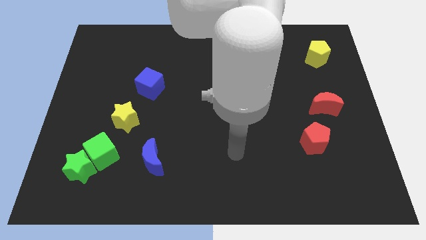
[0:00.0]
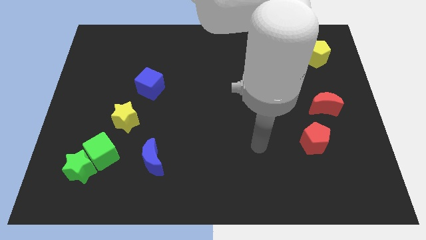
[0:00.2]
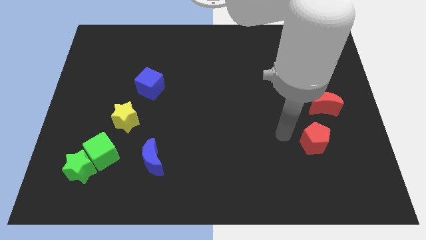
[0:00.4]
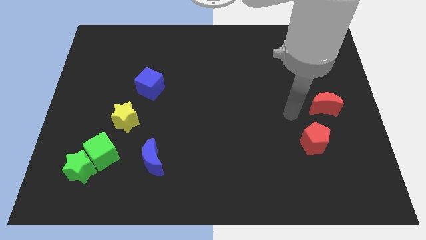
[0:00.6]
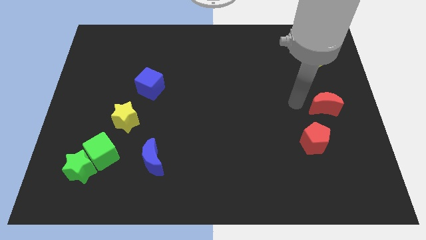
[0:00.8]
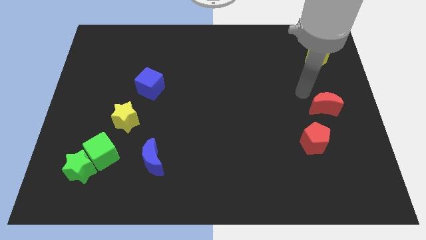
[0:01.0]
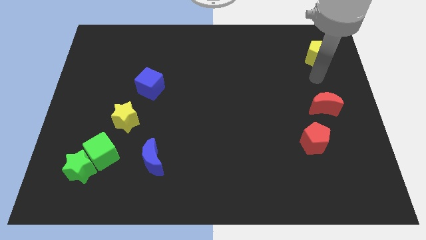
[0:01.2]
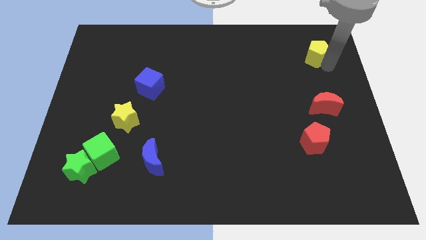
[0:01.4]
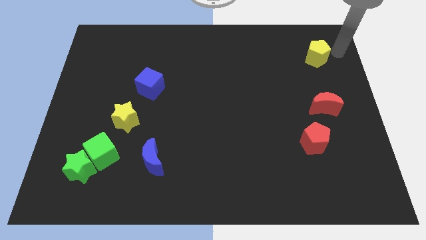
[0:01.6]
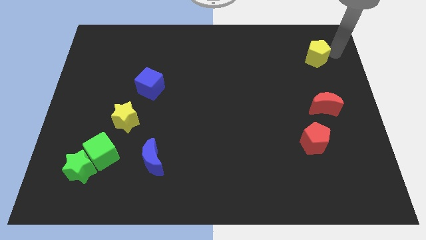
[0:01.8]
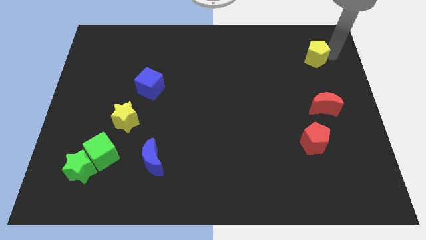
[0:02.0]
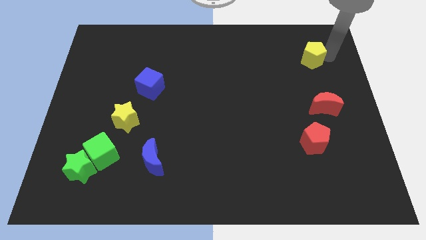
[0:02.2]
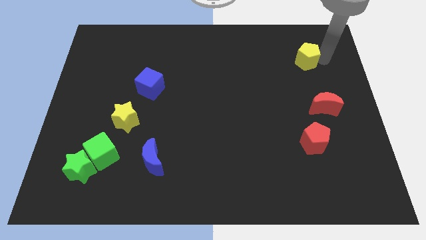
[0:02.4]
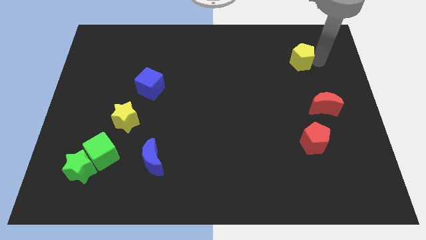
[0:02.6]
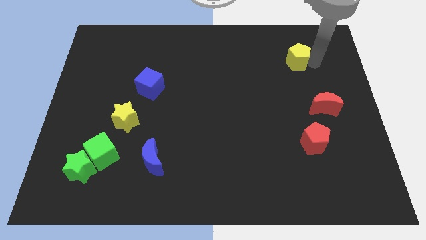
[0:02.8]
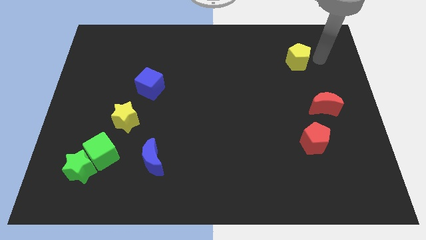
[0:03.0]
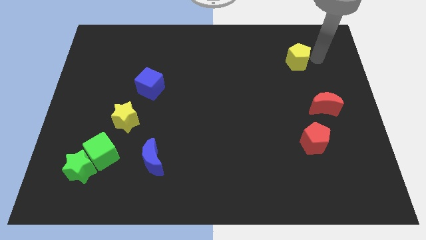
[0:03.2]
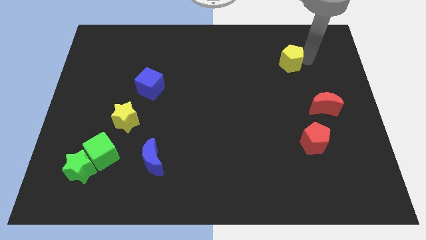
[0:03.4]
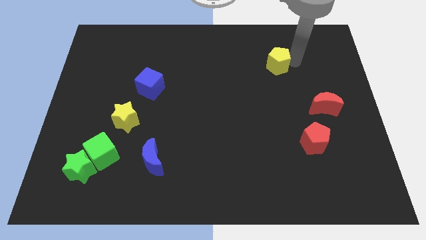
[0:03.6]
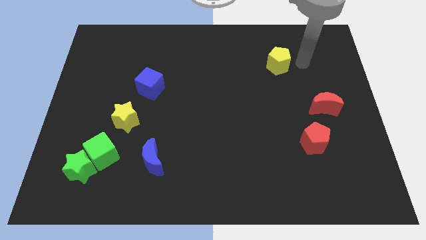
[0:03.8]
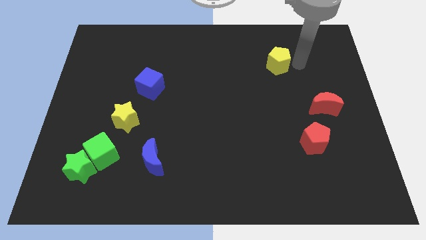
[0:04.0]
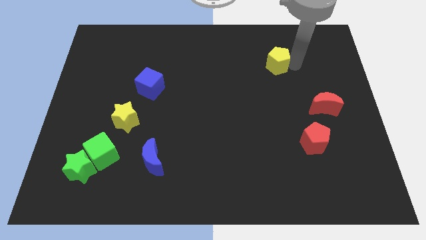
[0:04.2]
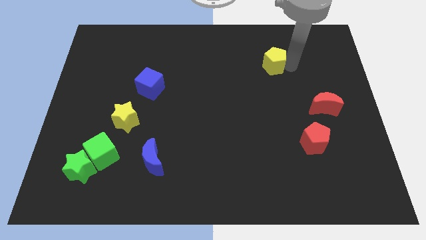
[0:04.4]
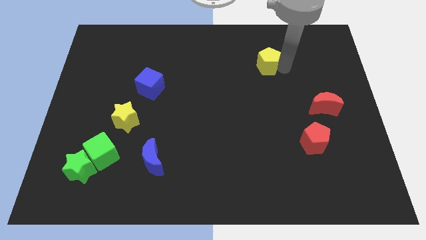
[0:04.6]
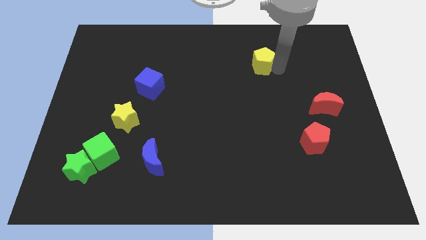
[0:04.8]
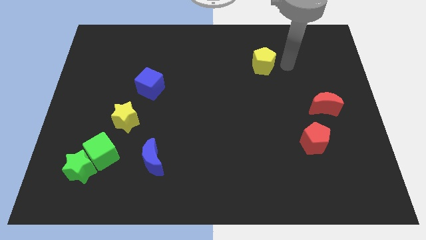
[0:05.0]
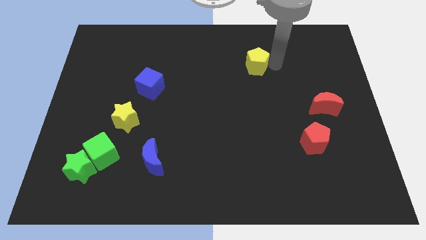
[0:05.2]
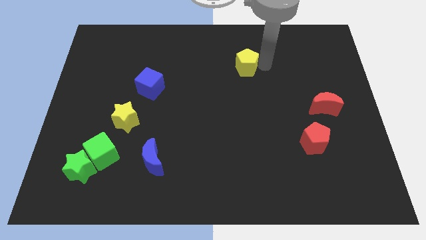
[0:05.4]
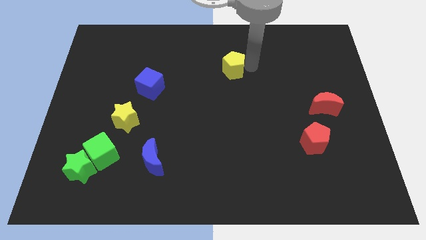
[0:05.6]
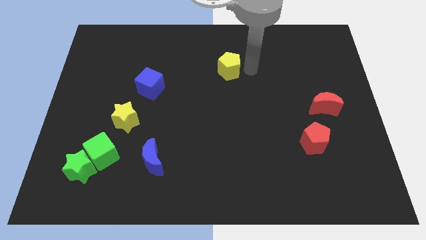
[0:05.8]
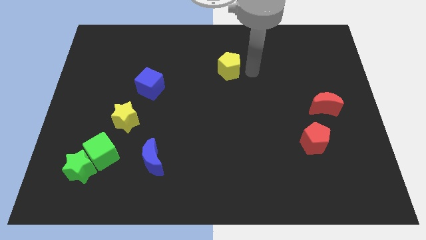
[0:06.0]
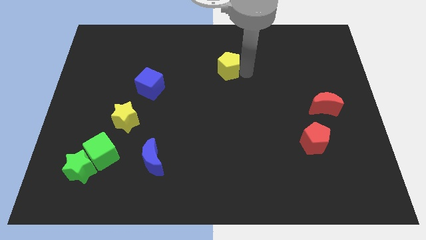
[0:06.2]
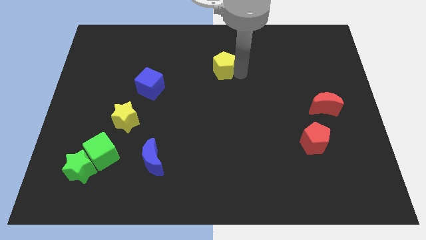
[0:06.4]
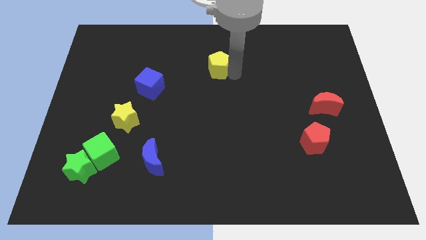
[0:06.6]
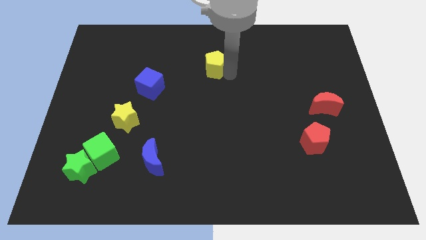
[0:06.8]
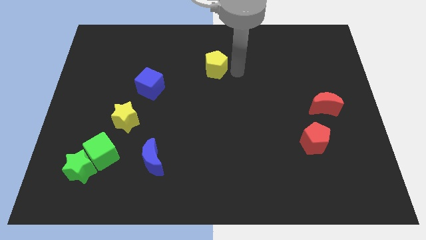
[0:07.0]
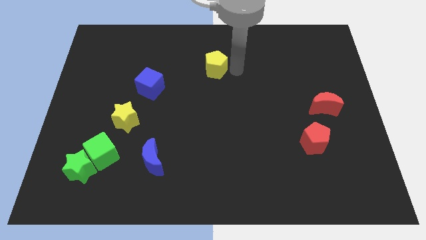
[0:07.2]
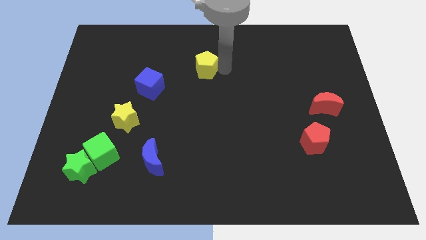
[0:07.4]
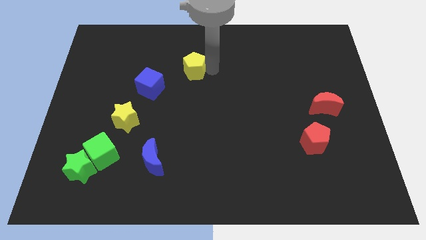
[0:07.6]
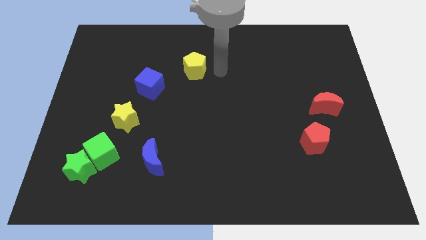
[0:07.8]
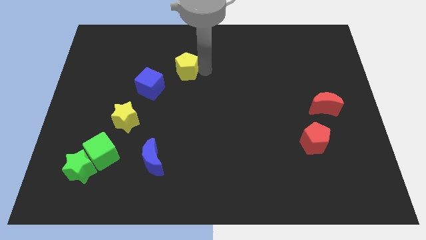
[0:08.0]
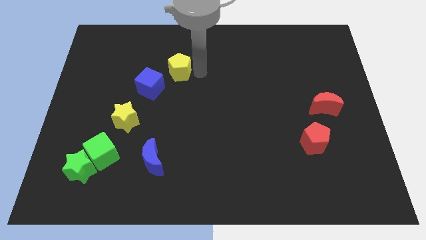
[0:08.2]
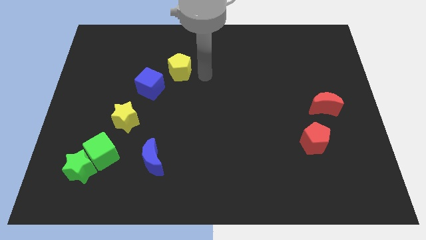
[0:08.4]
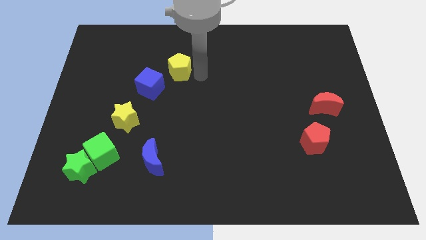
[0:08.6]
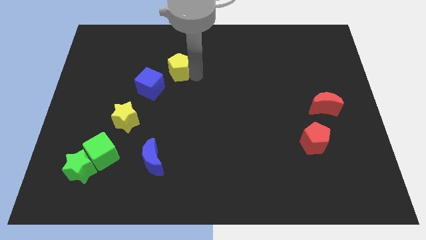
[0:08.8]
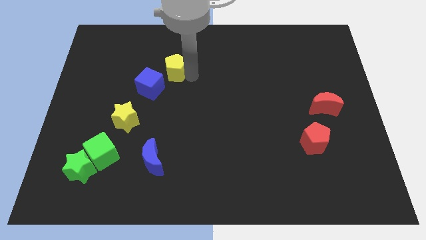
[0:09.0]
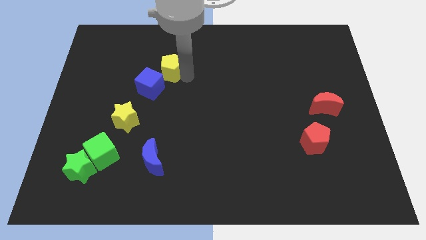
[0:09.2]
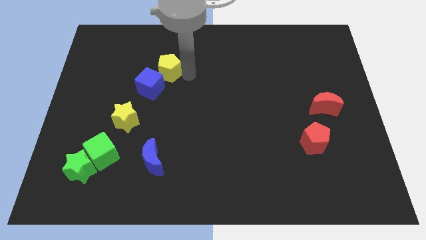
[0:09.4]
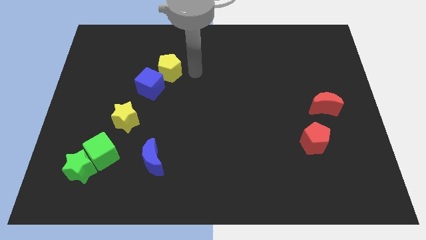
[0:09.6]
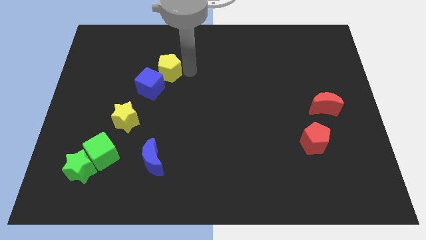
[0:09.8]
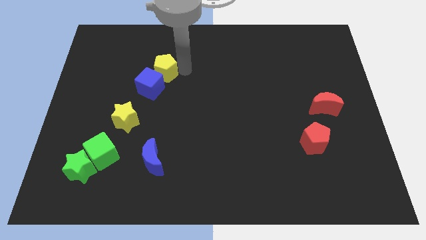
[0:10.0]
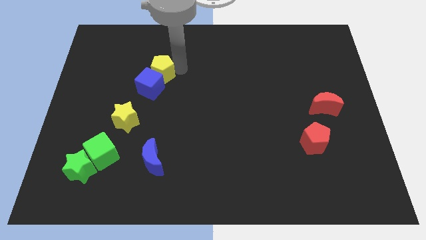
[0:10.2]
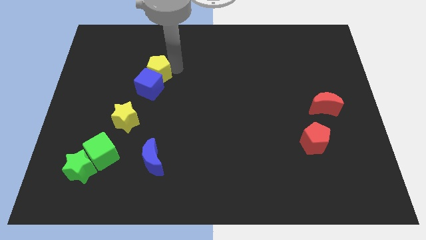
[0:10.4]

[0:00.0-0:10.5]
slide the yellow pentagon to the top left of the blue cube
